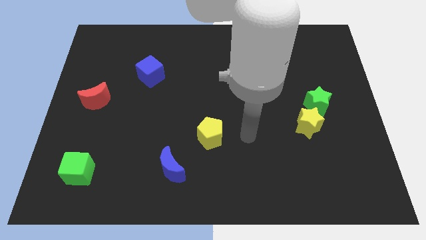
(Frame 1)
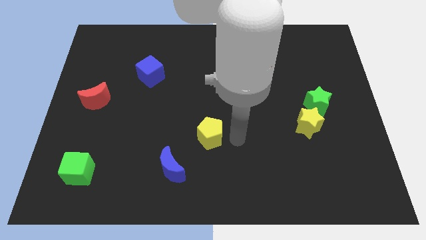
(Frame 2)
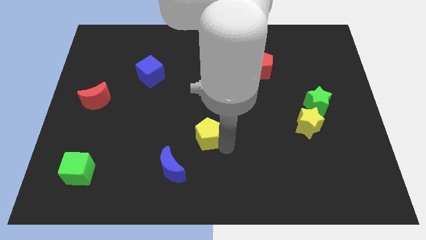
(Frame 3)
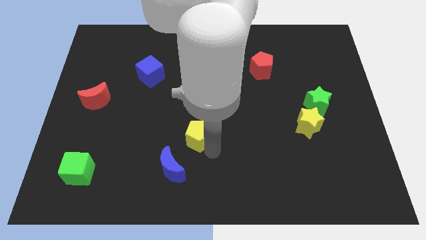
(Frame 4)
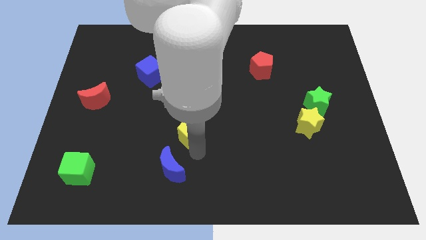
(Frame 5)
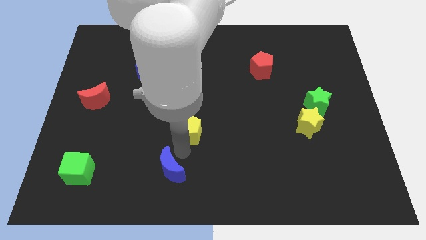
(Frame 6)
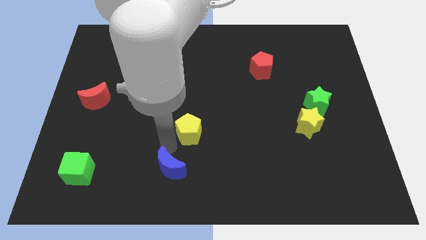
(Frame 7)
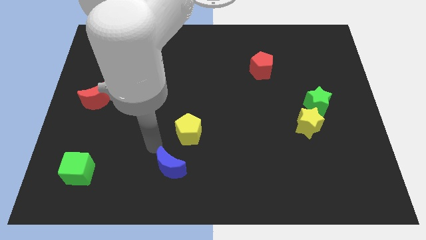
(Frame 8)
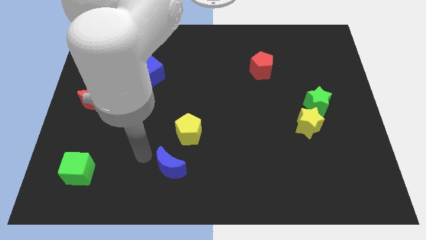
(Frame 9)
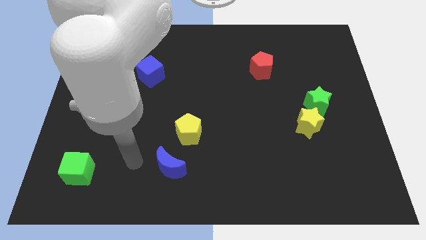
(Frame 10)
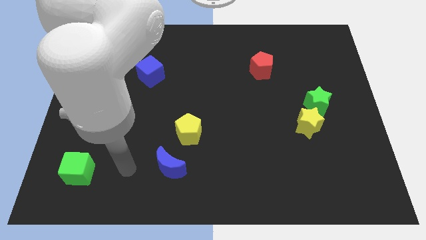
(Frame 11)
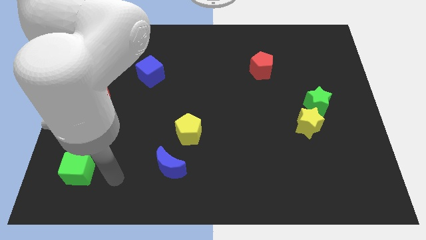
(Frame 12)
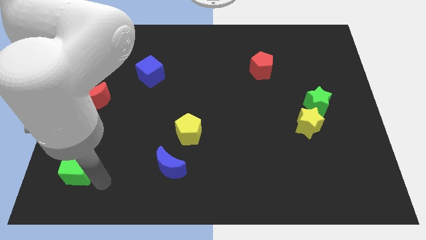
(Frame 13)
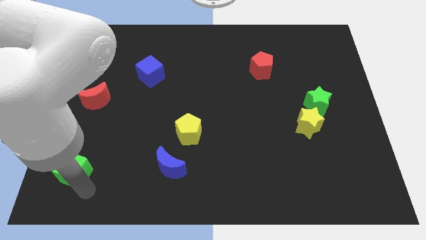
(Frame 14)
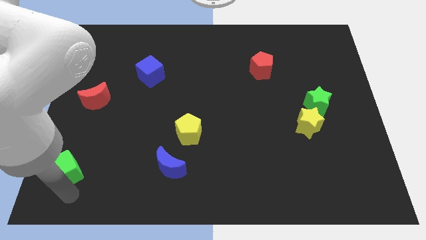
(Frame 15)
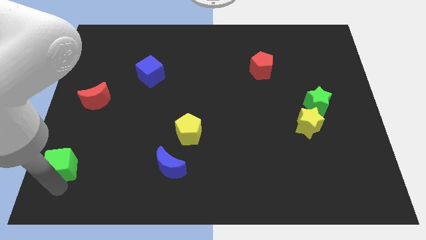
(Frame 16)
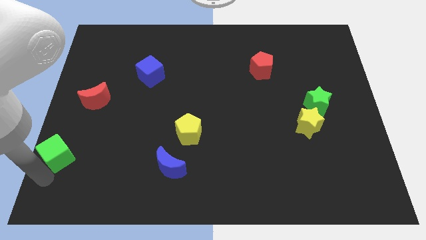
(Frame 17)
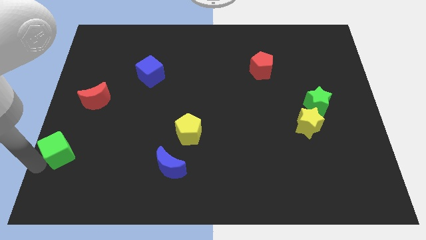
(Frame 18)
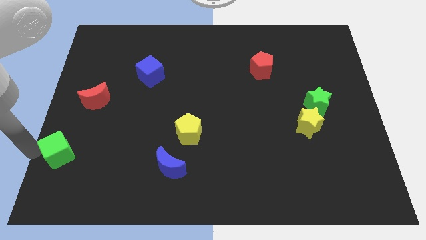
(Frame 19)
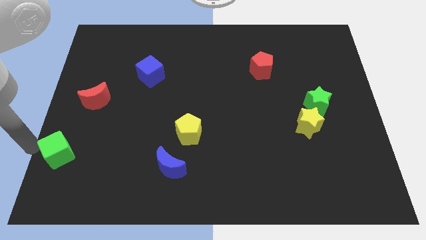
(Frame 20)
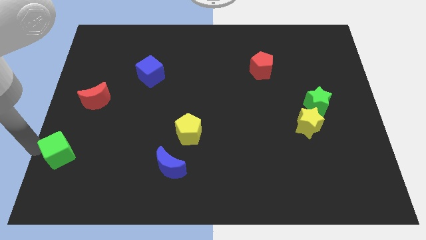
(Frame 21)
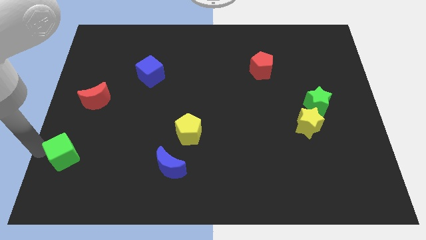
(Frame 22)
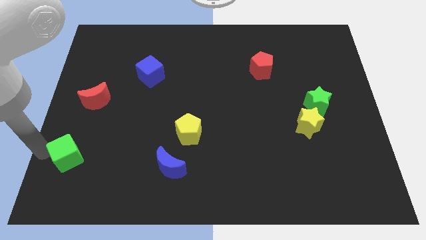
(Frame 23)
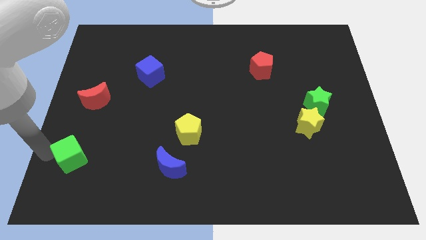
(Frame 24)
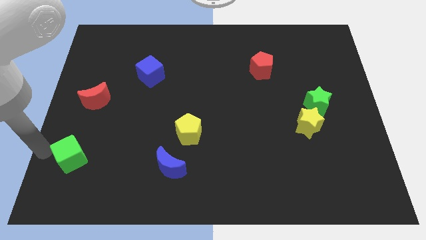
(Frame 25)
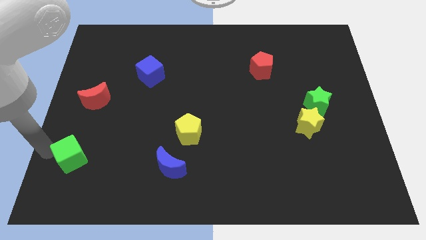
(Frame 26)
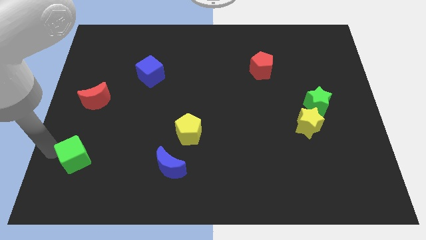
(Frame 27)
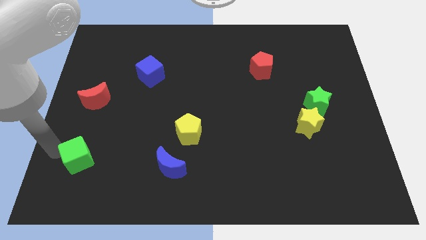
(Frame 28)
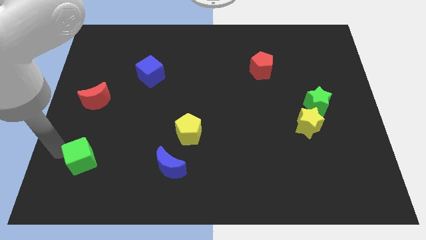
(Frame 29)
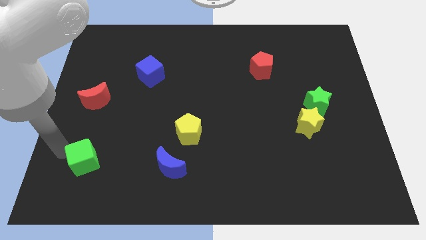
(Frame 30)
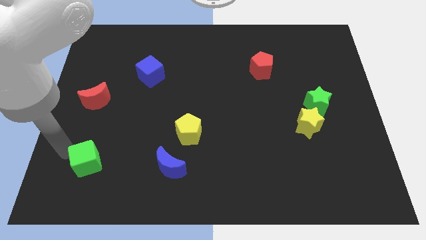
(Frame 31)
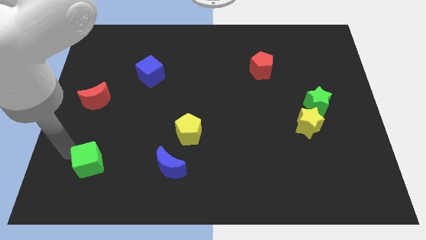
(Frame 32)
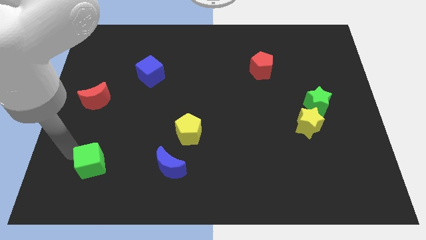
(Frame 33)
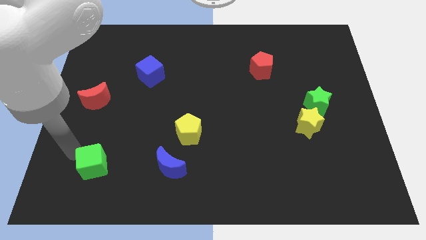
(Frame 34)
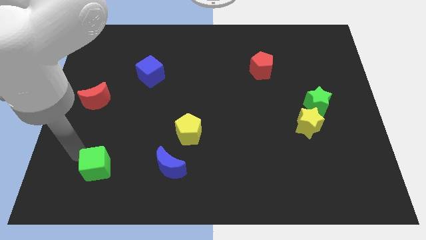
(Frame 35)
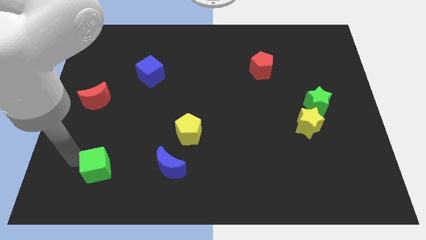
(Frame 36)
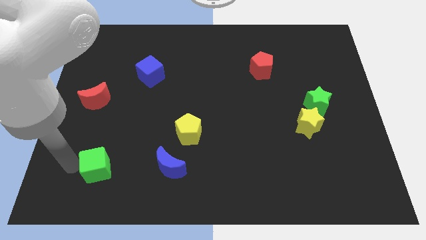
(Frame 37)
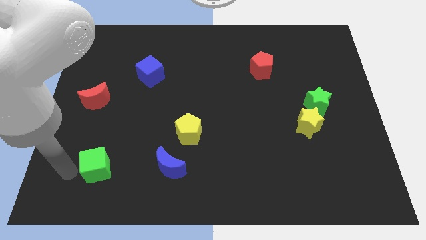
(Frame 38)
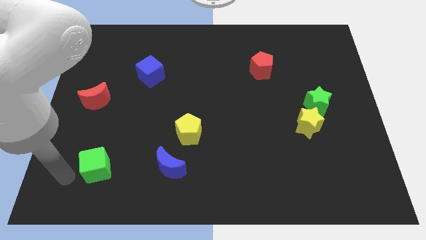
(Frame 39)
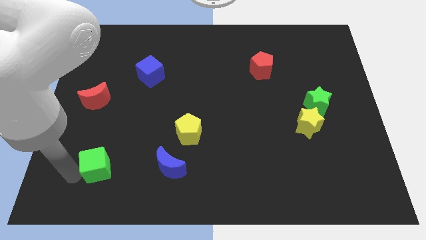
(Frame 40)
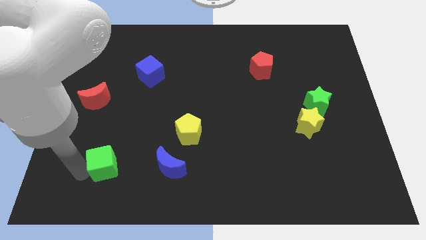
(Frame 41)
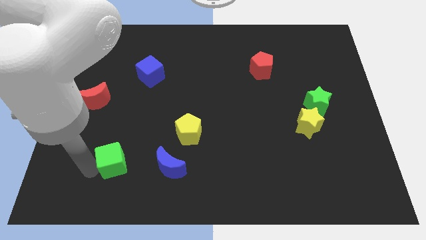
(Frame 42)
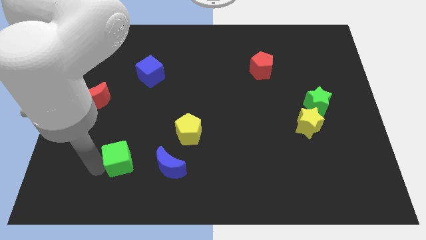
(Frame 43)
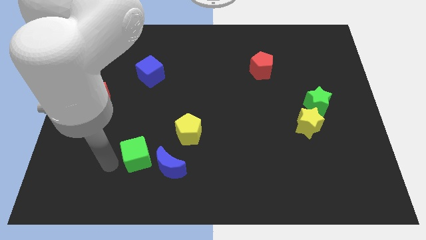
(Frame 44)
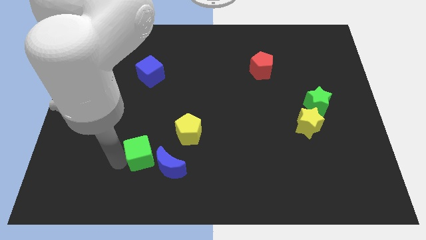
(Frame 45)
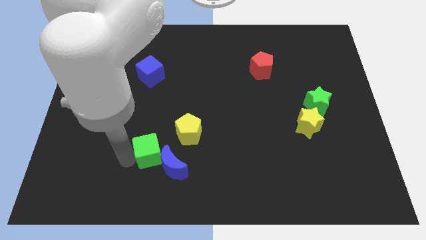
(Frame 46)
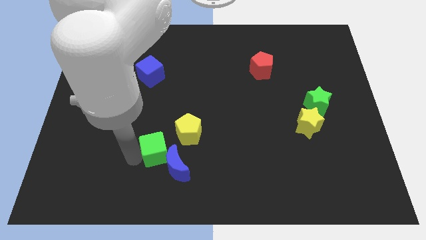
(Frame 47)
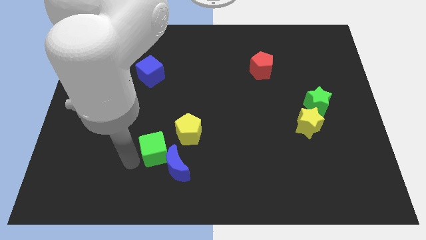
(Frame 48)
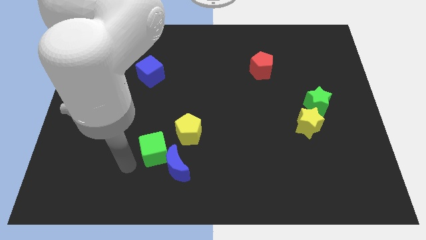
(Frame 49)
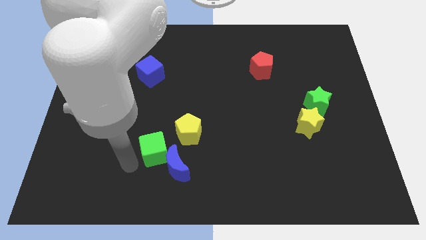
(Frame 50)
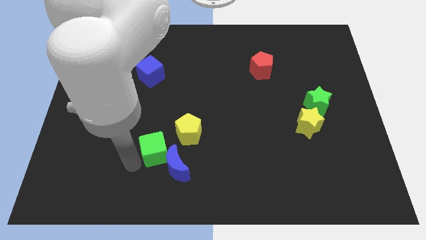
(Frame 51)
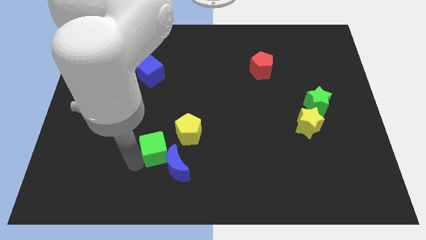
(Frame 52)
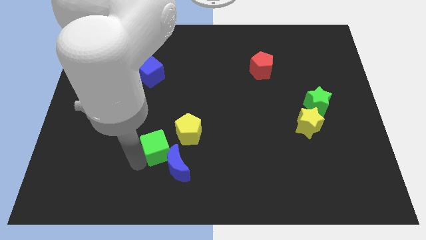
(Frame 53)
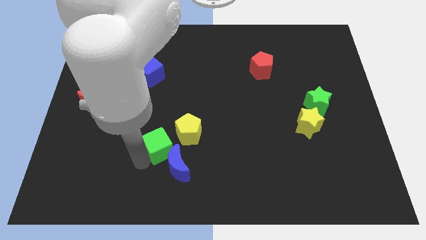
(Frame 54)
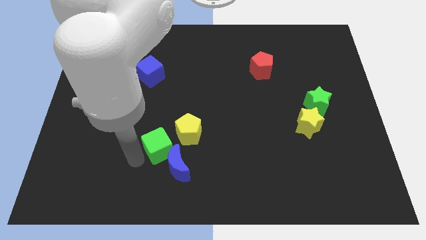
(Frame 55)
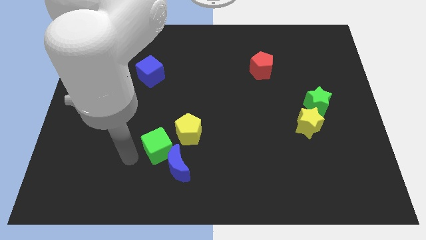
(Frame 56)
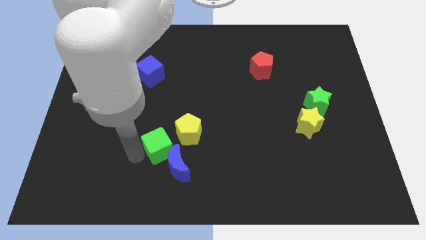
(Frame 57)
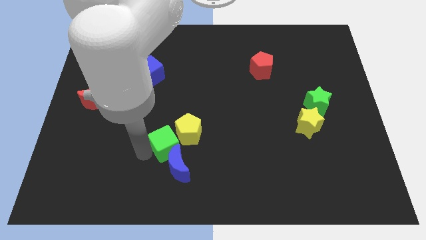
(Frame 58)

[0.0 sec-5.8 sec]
push the green cube towards the yellow pentagon

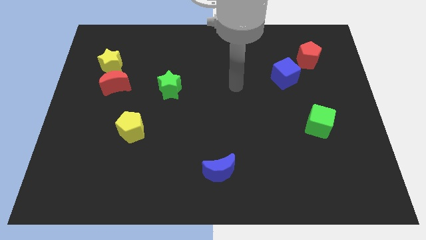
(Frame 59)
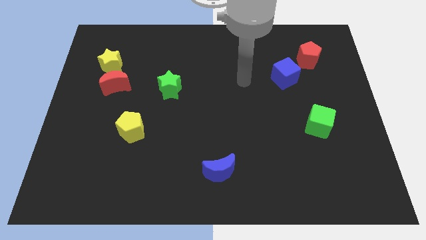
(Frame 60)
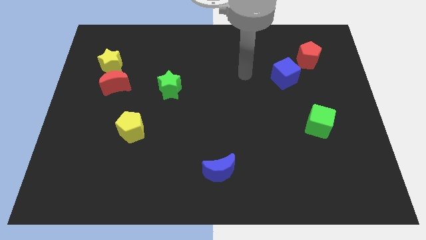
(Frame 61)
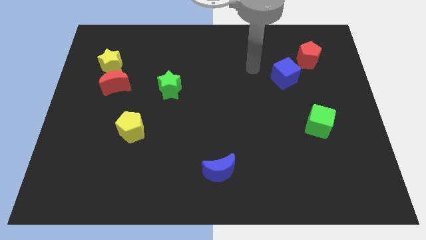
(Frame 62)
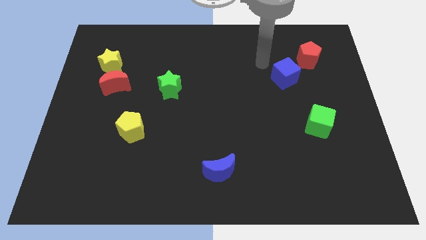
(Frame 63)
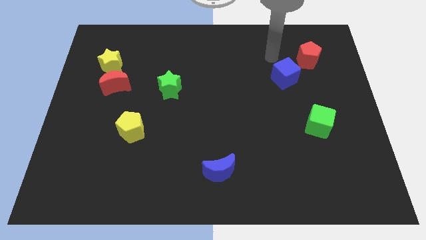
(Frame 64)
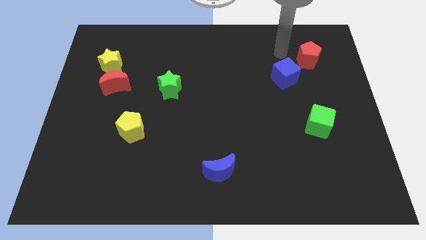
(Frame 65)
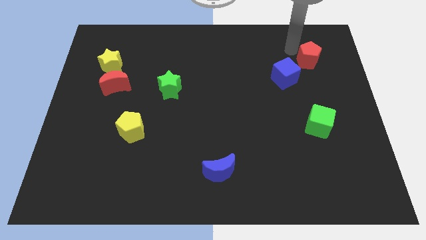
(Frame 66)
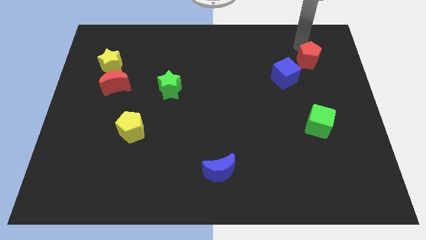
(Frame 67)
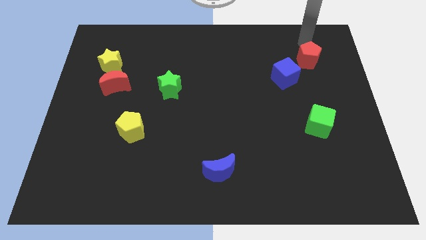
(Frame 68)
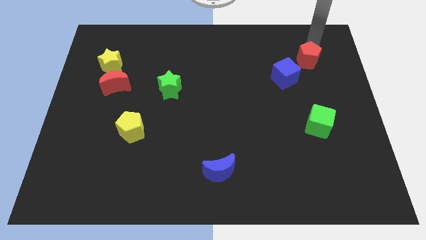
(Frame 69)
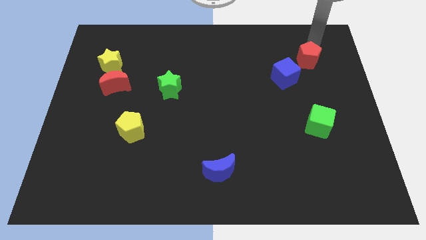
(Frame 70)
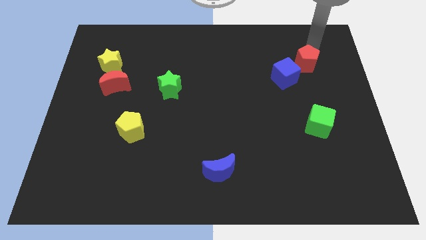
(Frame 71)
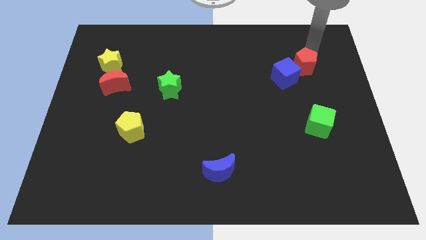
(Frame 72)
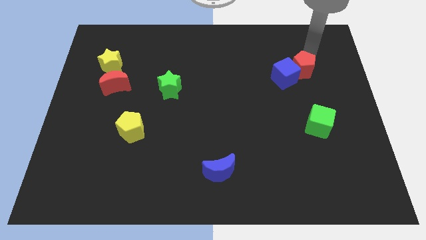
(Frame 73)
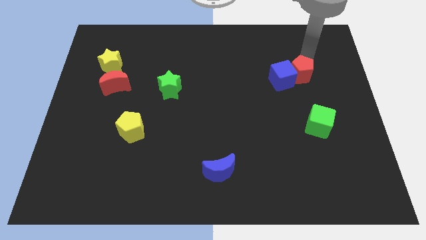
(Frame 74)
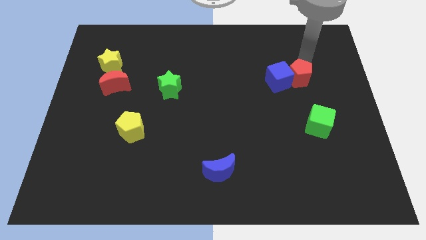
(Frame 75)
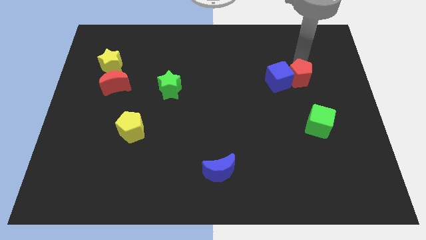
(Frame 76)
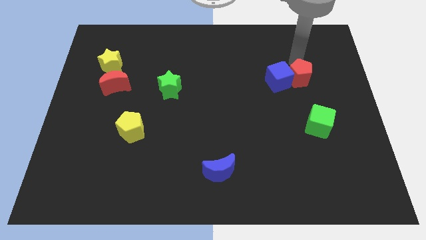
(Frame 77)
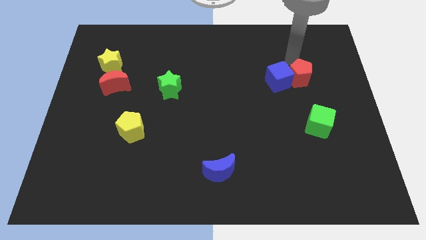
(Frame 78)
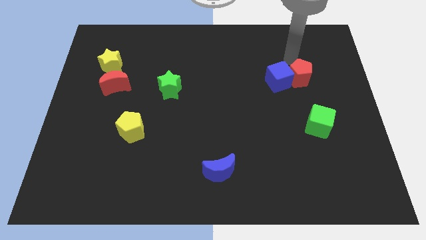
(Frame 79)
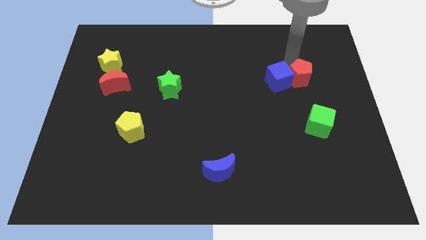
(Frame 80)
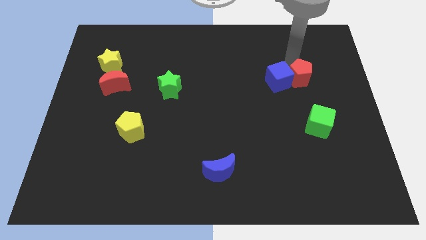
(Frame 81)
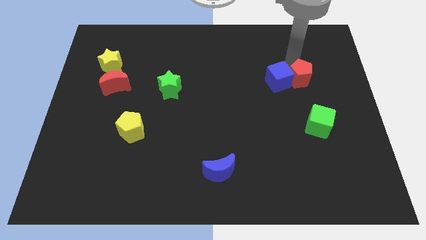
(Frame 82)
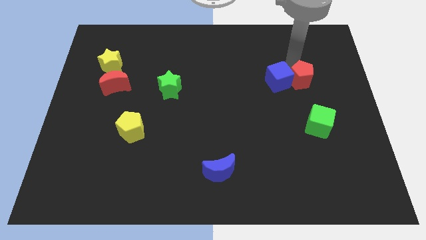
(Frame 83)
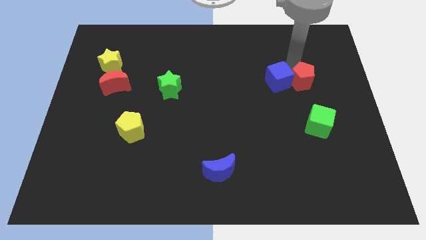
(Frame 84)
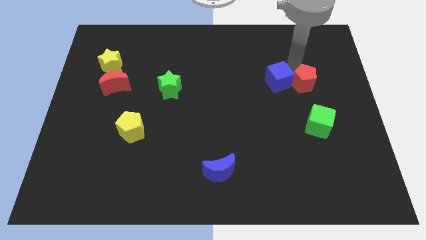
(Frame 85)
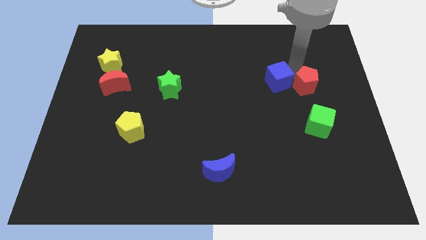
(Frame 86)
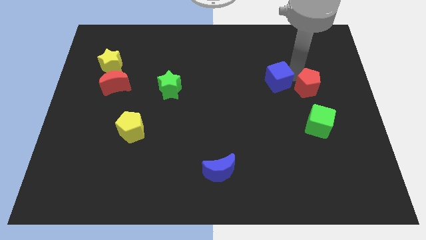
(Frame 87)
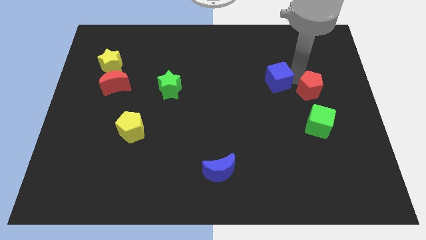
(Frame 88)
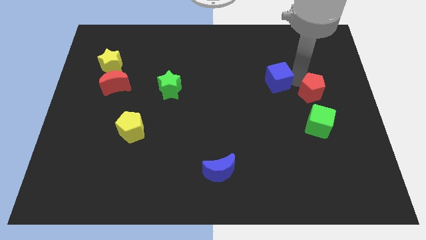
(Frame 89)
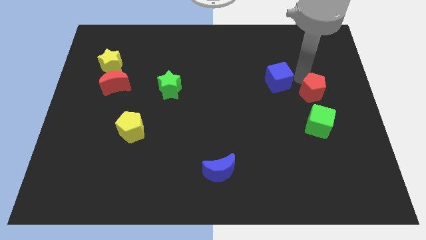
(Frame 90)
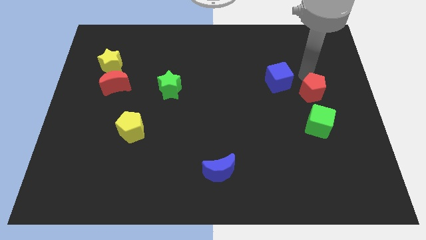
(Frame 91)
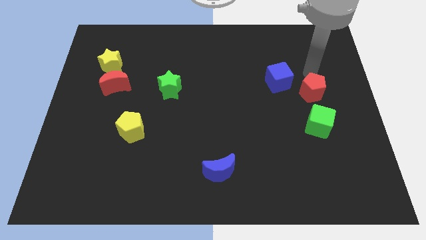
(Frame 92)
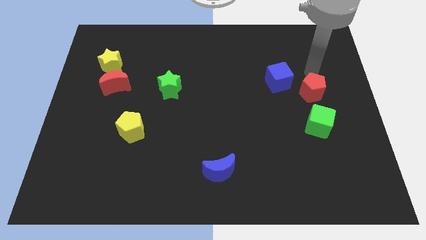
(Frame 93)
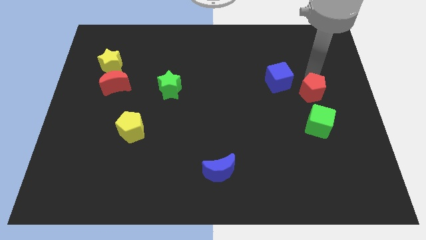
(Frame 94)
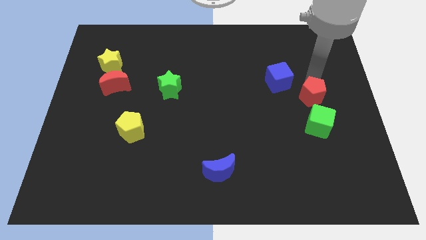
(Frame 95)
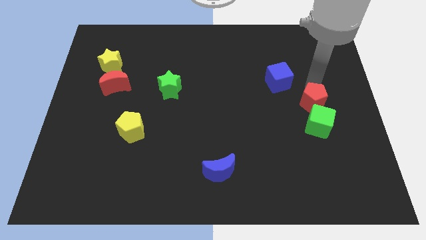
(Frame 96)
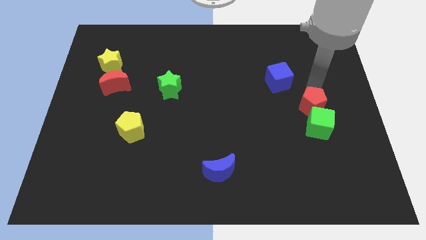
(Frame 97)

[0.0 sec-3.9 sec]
push the red pentagon next to the green cube
